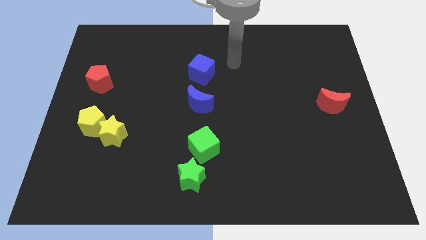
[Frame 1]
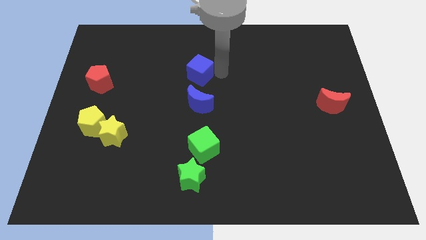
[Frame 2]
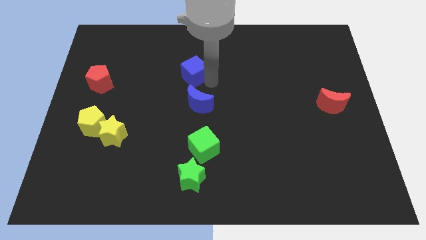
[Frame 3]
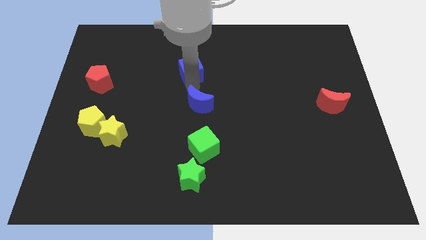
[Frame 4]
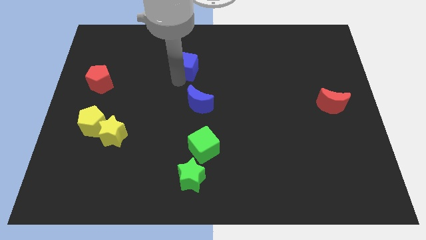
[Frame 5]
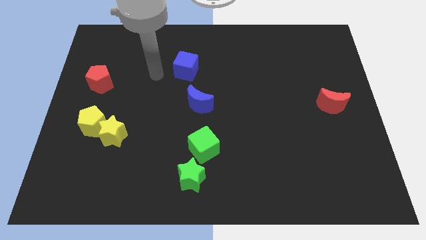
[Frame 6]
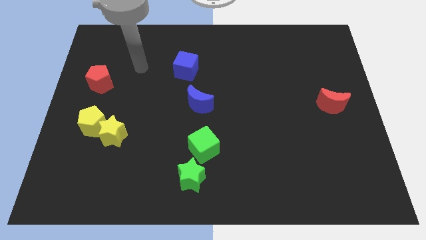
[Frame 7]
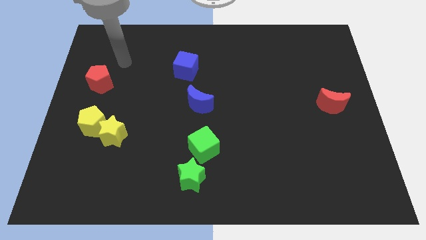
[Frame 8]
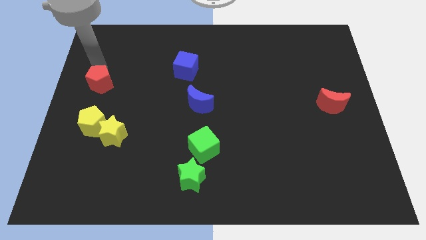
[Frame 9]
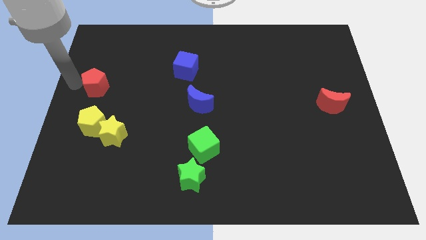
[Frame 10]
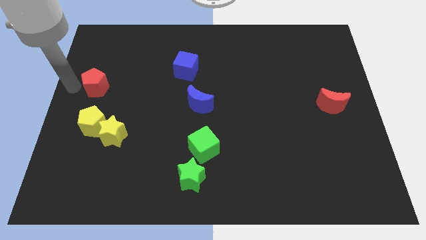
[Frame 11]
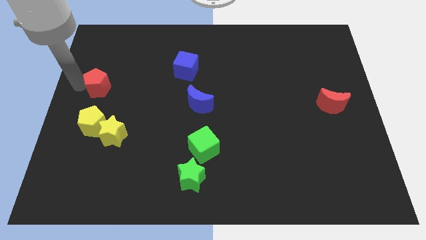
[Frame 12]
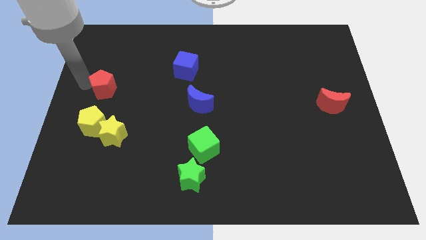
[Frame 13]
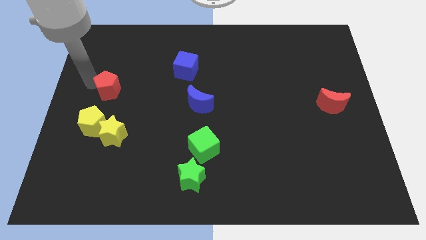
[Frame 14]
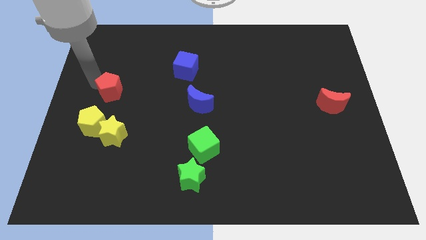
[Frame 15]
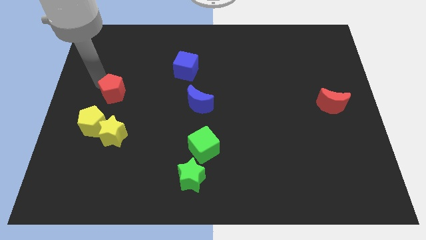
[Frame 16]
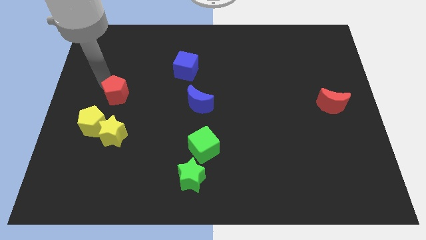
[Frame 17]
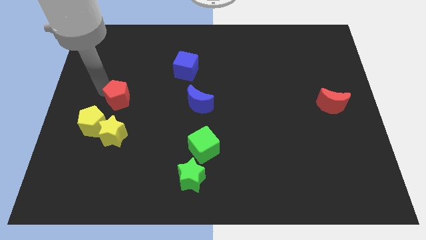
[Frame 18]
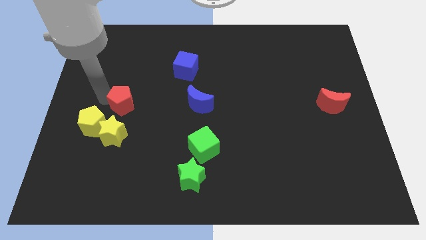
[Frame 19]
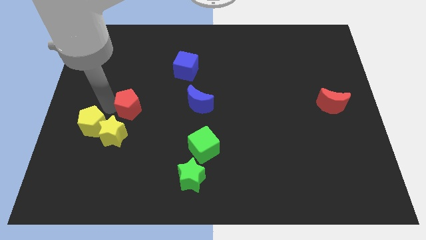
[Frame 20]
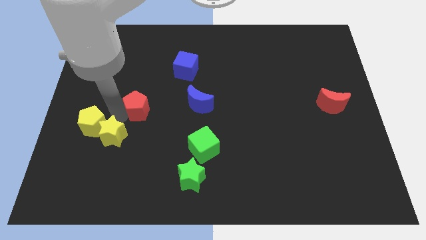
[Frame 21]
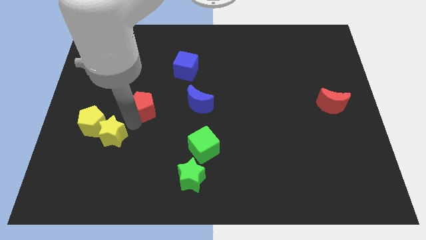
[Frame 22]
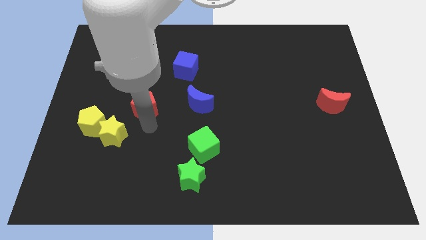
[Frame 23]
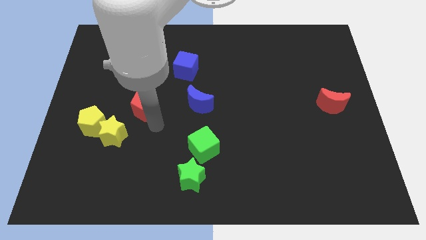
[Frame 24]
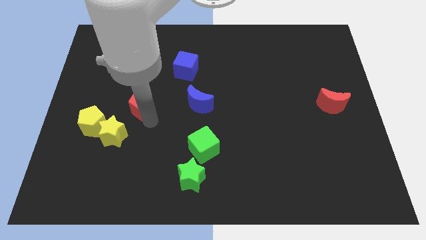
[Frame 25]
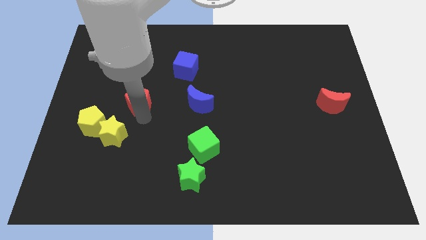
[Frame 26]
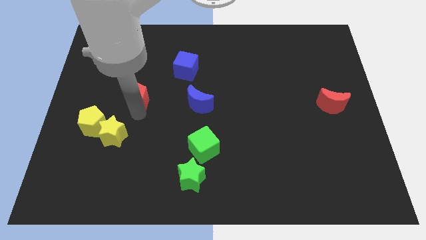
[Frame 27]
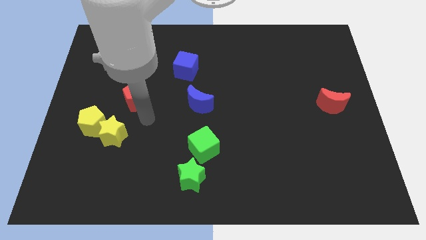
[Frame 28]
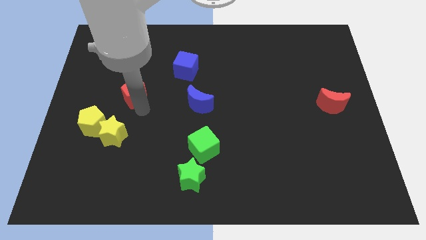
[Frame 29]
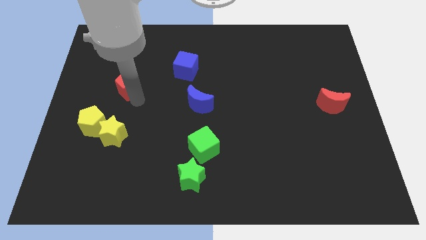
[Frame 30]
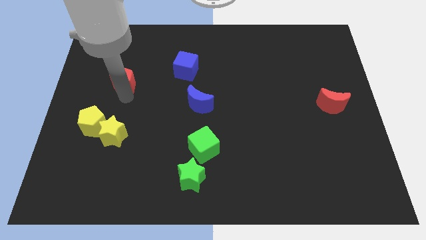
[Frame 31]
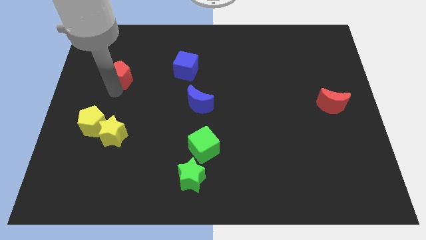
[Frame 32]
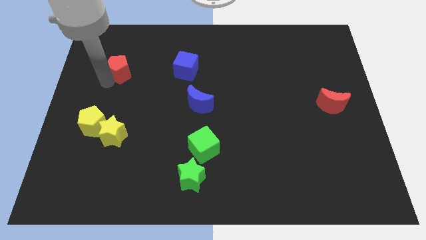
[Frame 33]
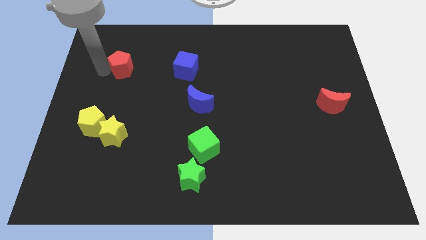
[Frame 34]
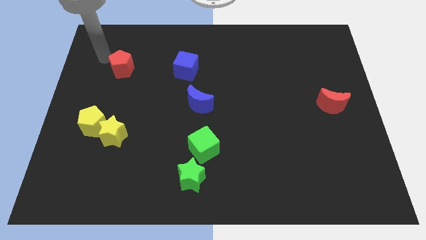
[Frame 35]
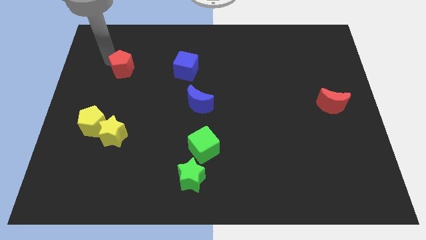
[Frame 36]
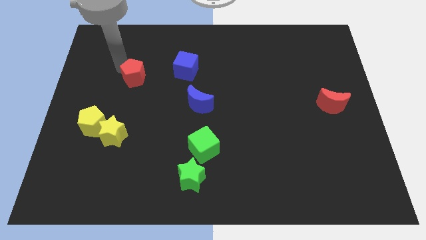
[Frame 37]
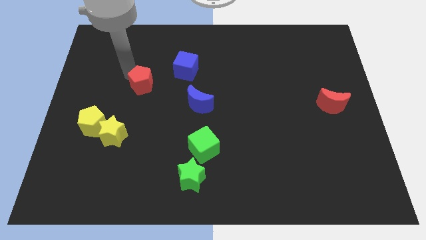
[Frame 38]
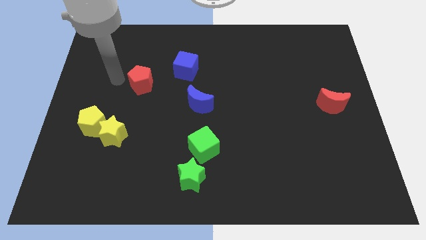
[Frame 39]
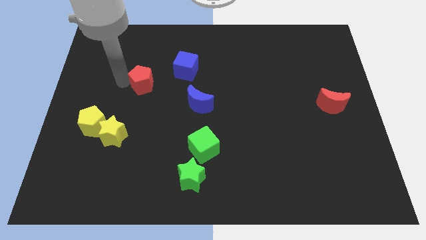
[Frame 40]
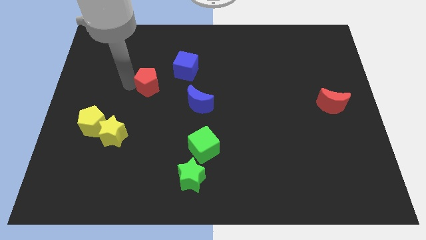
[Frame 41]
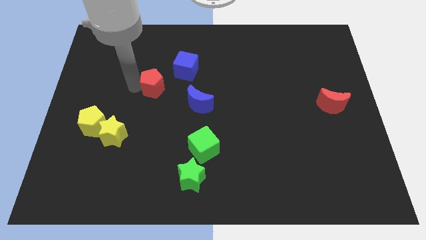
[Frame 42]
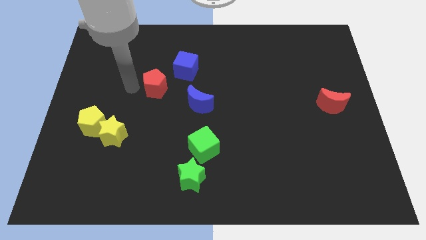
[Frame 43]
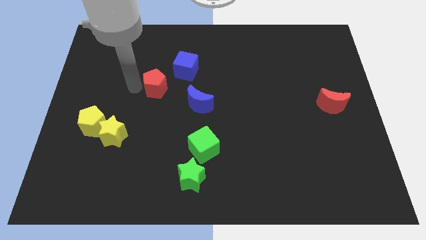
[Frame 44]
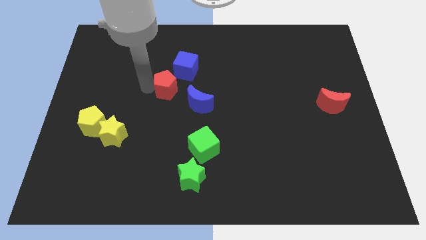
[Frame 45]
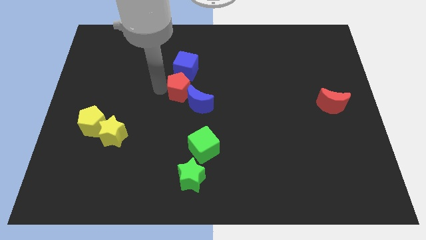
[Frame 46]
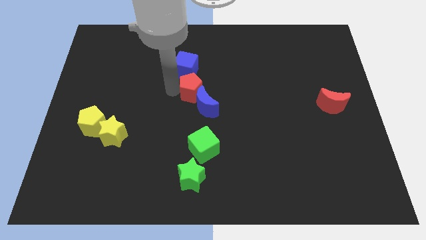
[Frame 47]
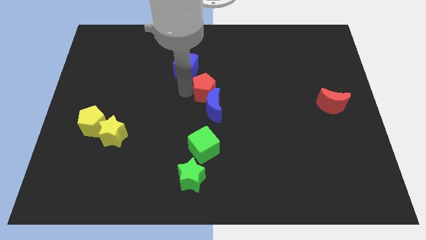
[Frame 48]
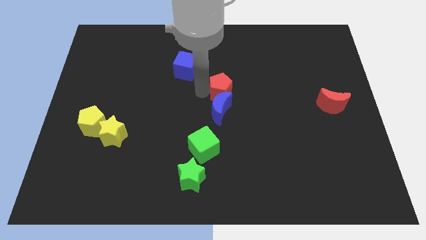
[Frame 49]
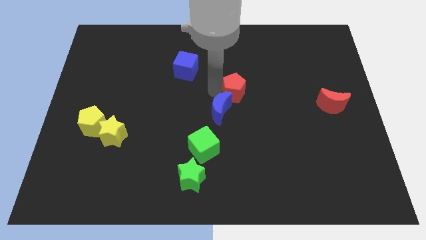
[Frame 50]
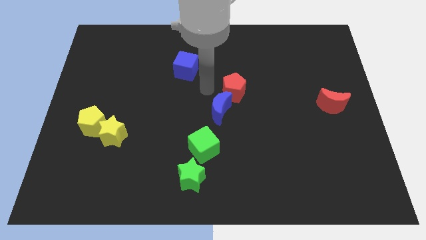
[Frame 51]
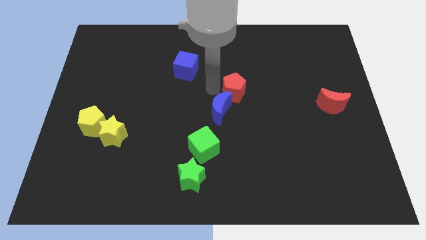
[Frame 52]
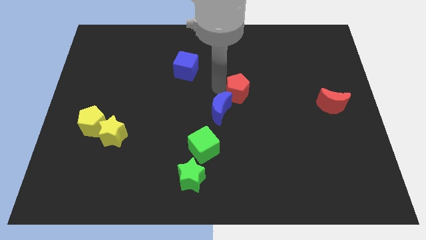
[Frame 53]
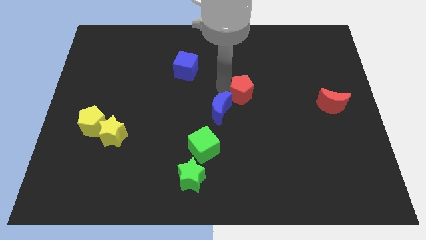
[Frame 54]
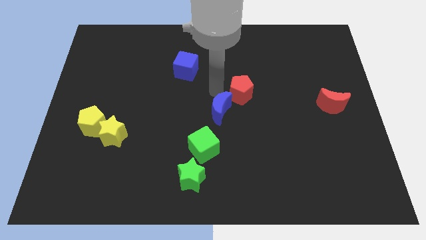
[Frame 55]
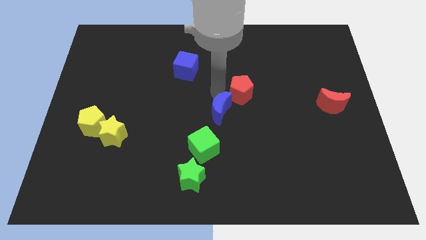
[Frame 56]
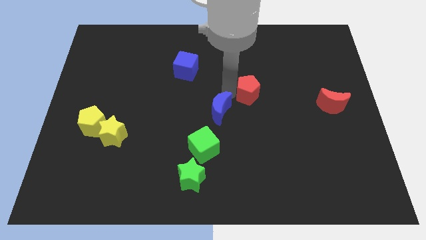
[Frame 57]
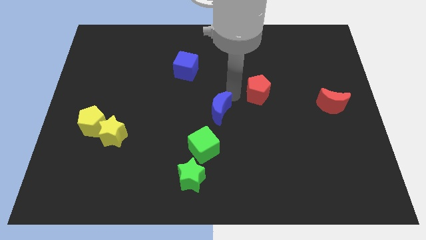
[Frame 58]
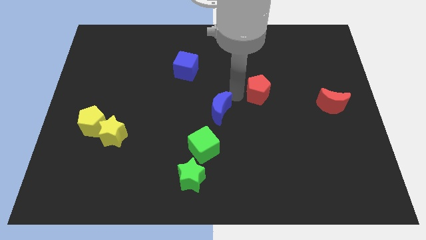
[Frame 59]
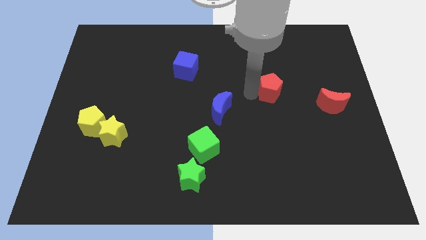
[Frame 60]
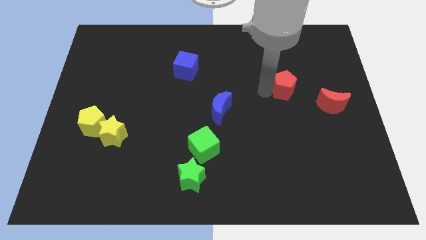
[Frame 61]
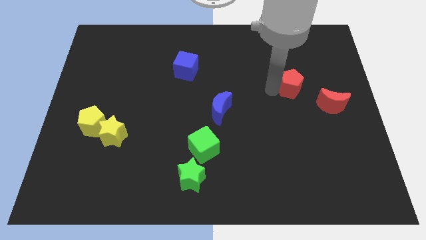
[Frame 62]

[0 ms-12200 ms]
put the red pentagon diagonally up and to the left of the red moon

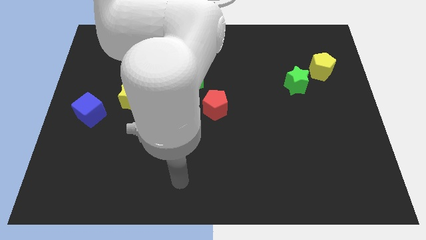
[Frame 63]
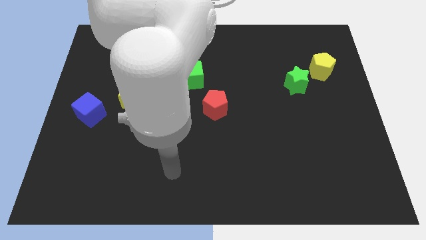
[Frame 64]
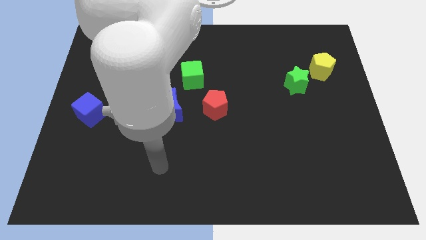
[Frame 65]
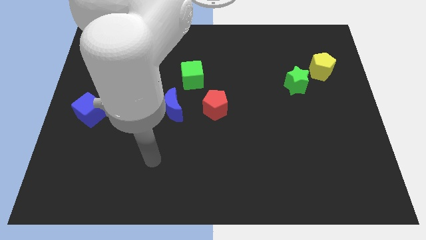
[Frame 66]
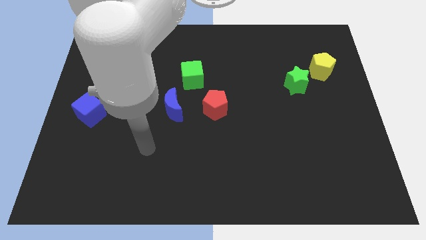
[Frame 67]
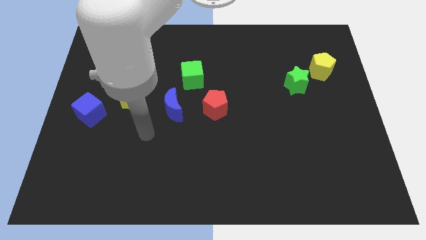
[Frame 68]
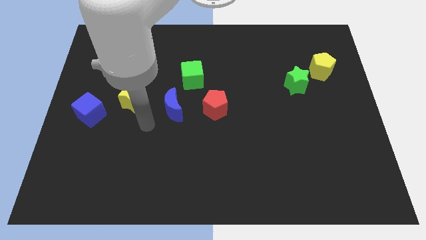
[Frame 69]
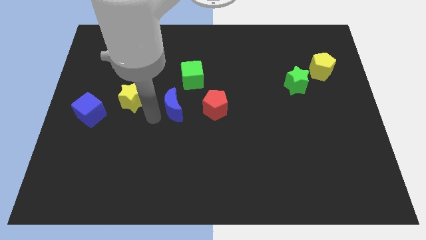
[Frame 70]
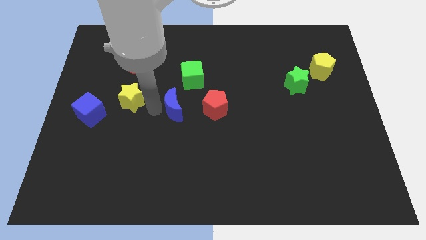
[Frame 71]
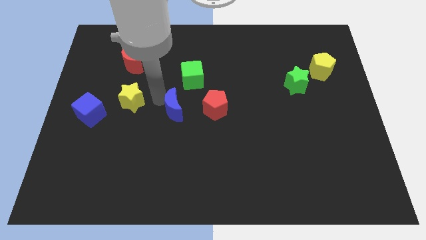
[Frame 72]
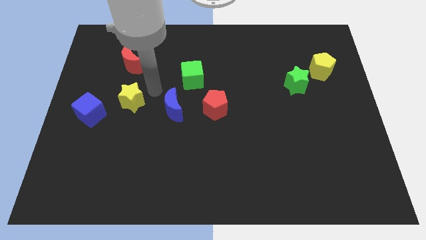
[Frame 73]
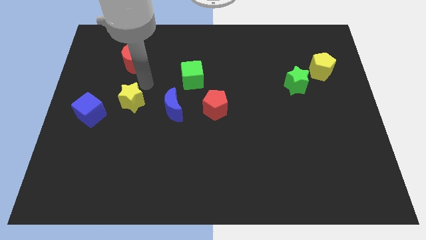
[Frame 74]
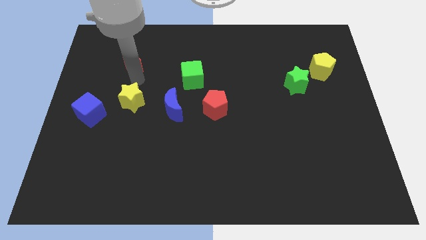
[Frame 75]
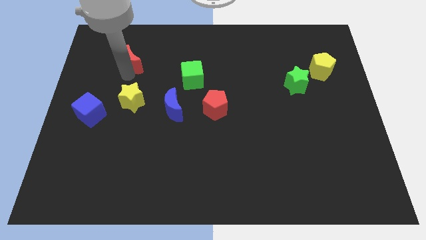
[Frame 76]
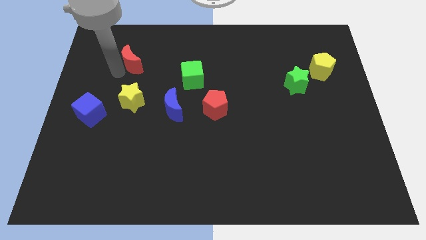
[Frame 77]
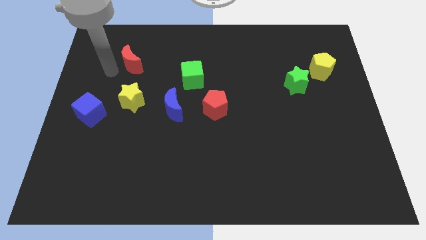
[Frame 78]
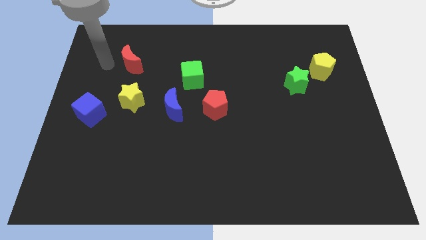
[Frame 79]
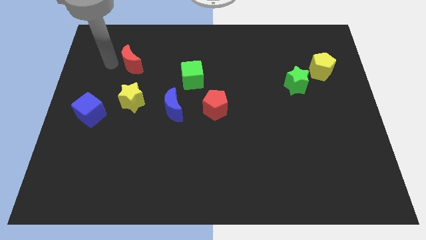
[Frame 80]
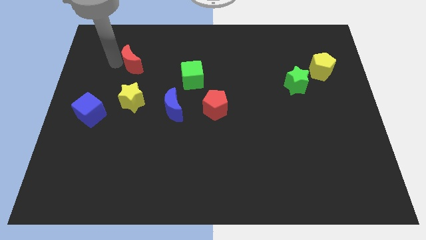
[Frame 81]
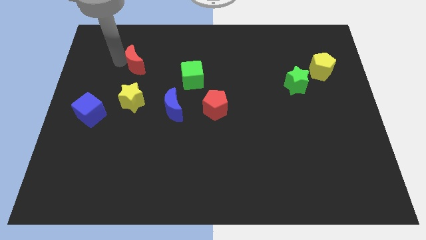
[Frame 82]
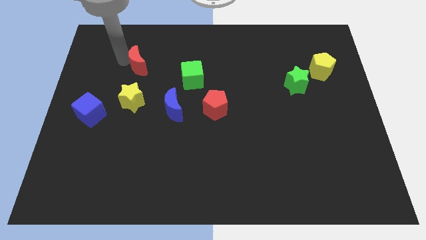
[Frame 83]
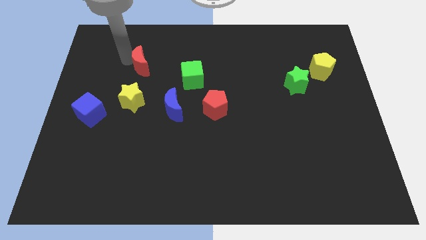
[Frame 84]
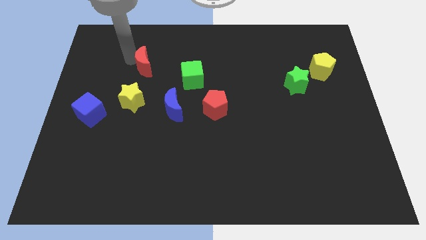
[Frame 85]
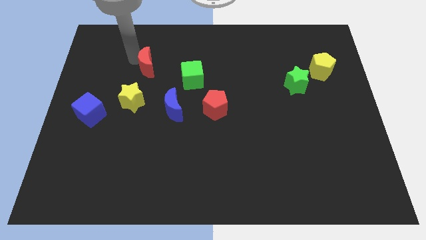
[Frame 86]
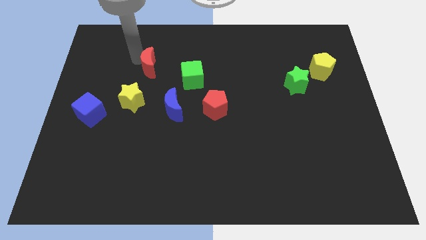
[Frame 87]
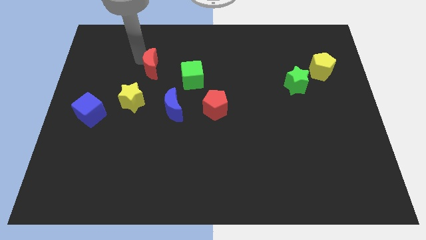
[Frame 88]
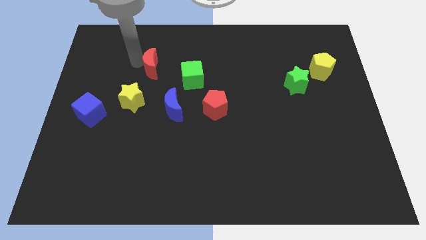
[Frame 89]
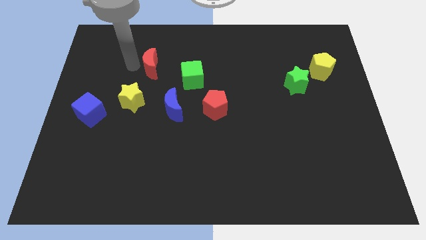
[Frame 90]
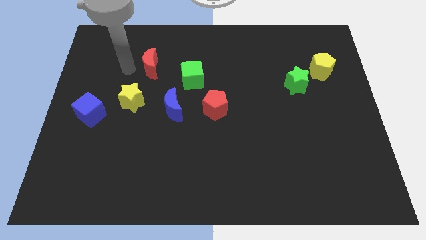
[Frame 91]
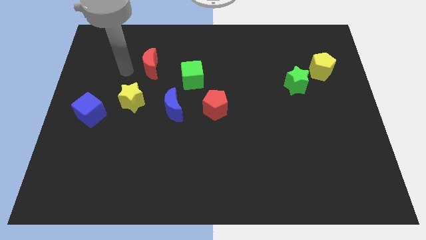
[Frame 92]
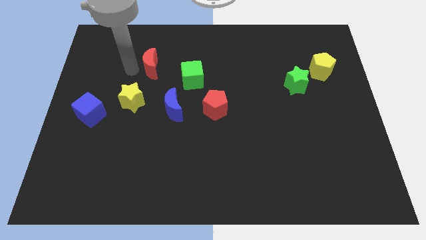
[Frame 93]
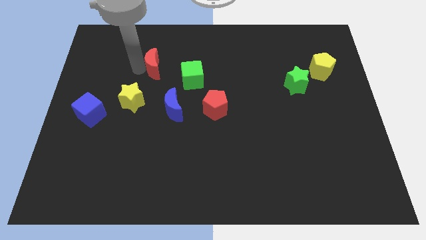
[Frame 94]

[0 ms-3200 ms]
push the red moon to the top left of the green cube
